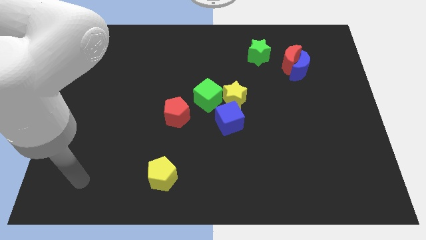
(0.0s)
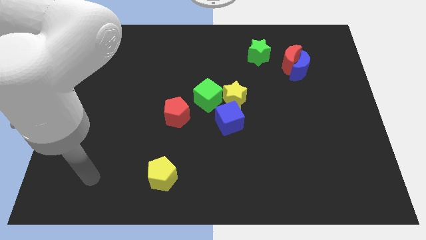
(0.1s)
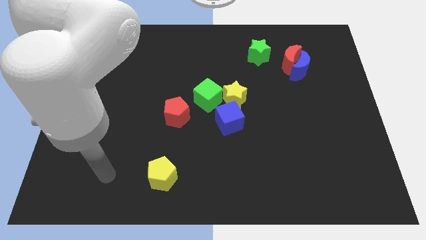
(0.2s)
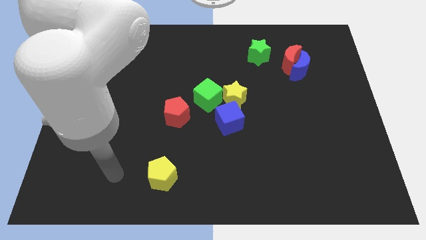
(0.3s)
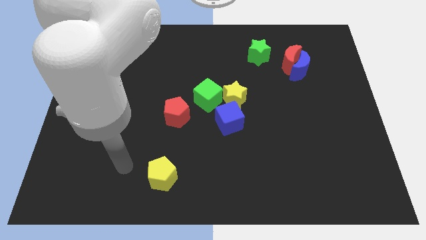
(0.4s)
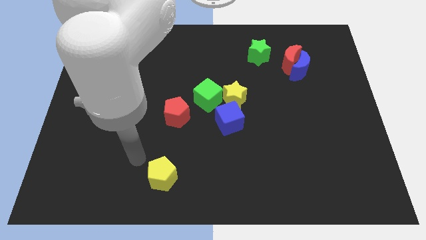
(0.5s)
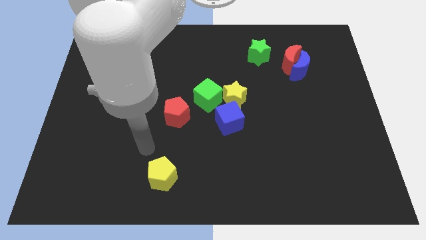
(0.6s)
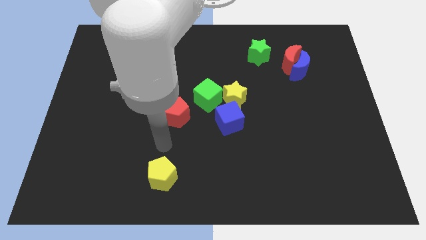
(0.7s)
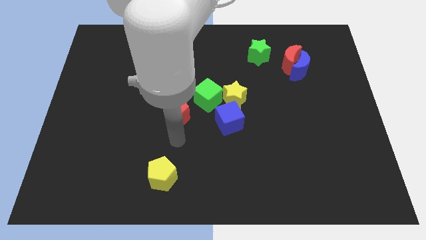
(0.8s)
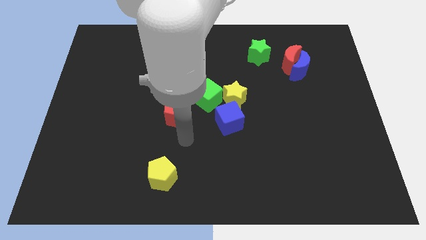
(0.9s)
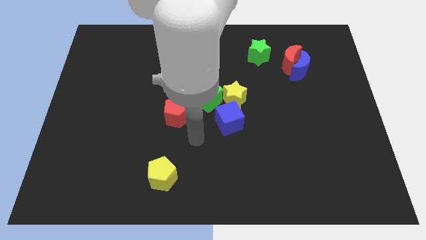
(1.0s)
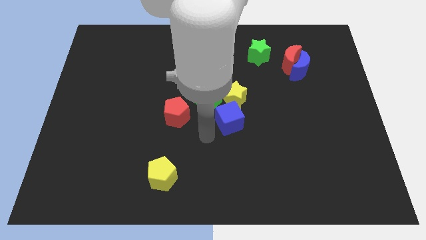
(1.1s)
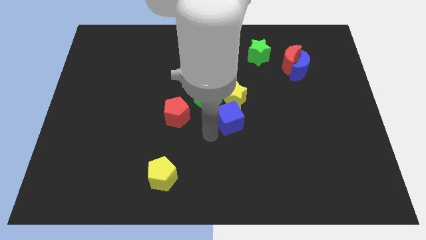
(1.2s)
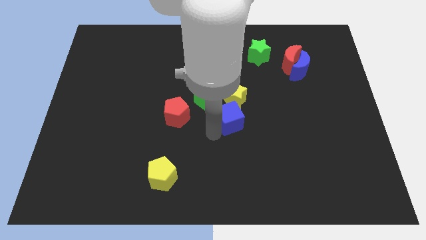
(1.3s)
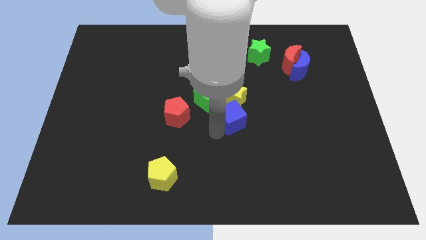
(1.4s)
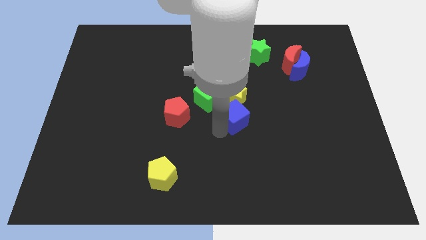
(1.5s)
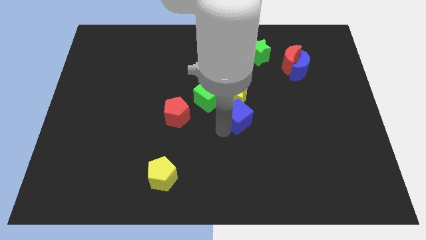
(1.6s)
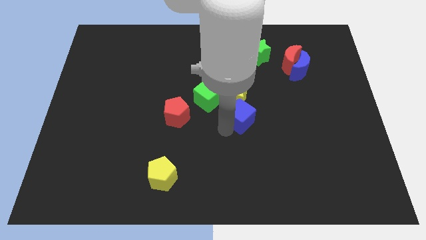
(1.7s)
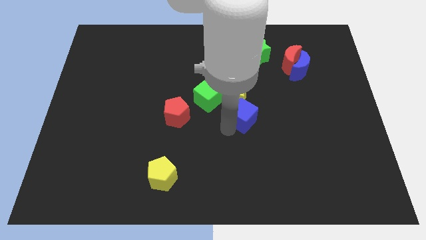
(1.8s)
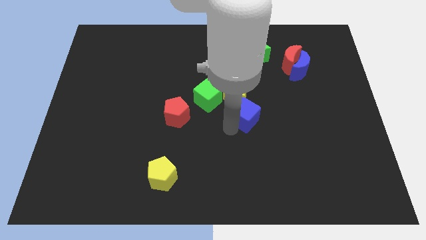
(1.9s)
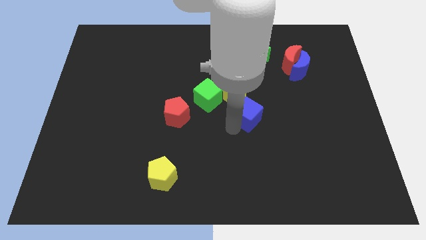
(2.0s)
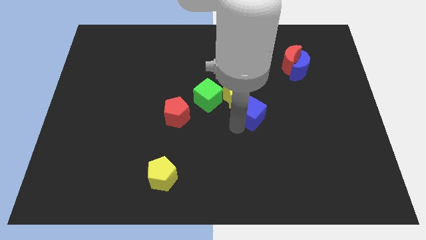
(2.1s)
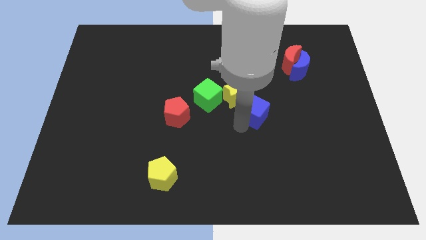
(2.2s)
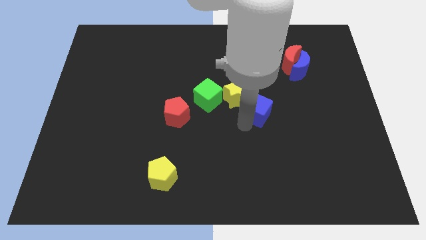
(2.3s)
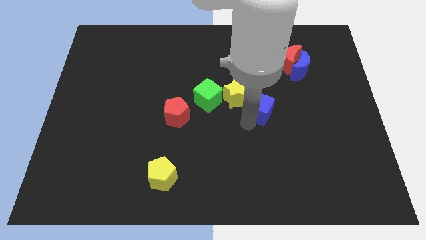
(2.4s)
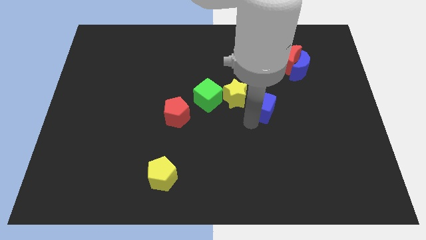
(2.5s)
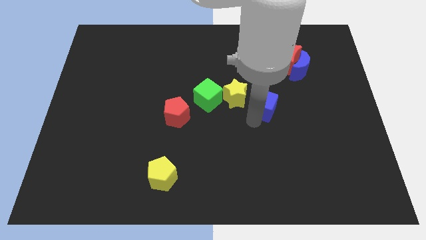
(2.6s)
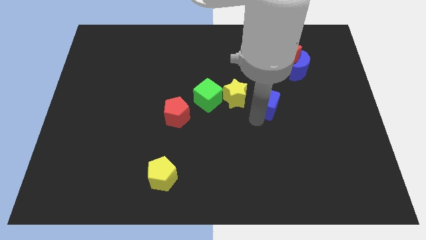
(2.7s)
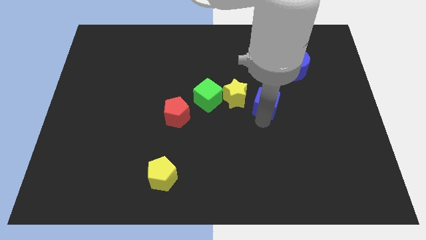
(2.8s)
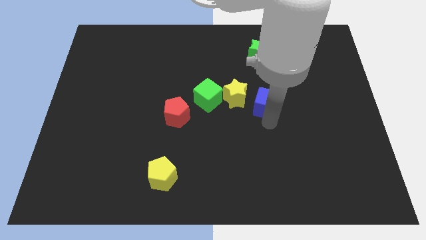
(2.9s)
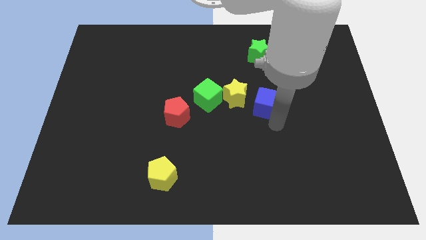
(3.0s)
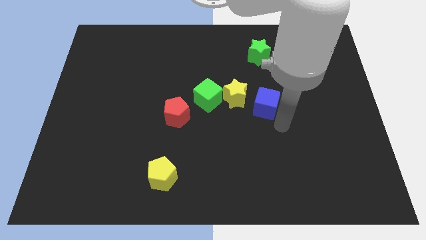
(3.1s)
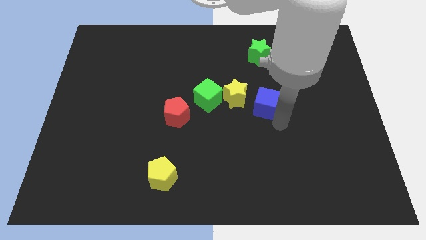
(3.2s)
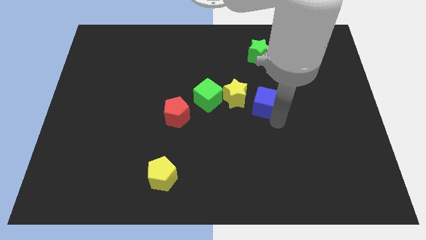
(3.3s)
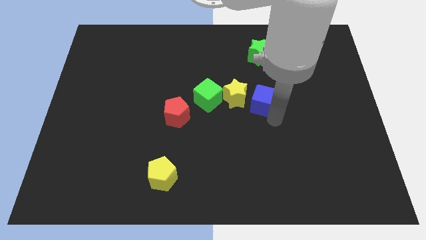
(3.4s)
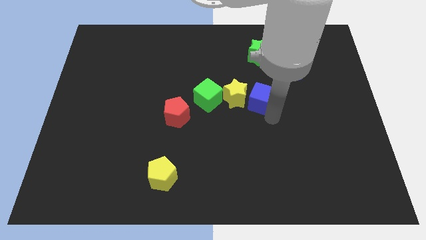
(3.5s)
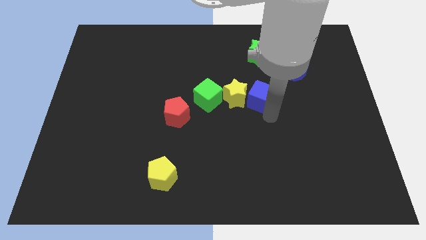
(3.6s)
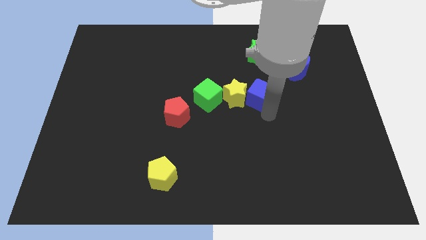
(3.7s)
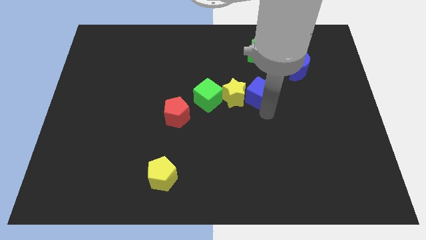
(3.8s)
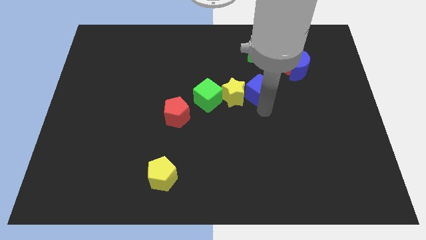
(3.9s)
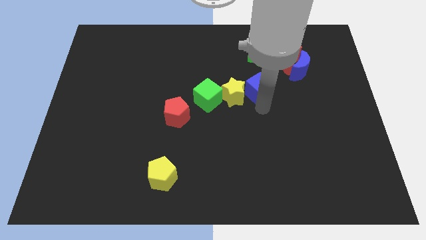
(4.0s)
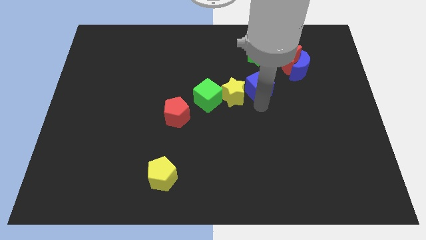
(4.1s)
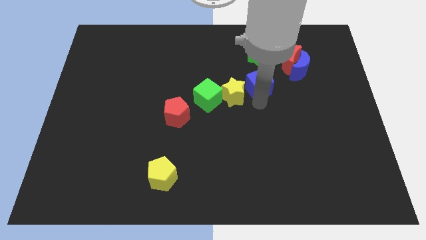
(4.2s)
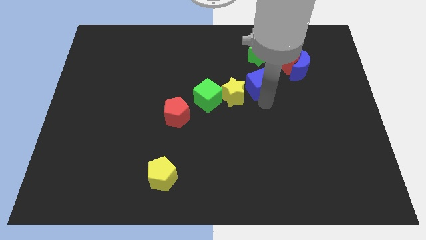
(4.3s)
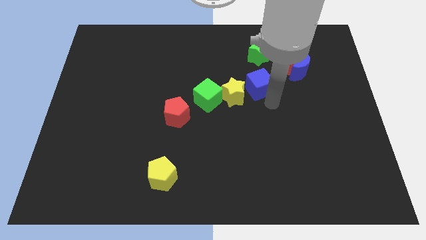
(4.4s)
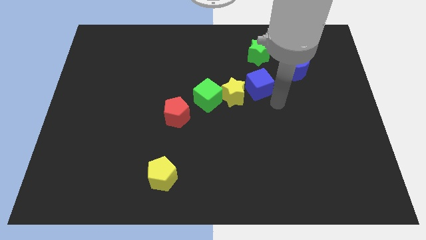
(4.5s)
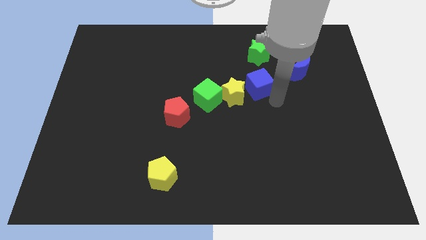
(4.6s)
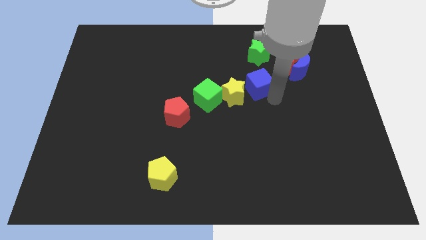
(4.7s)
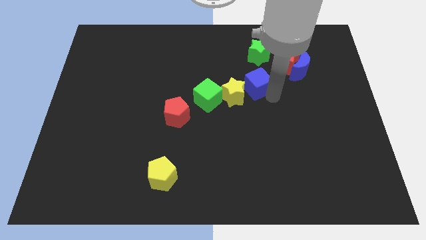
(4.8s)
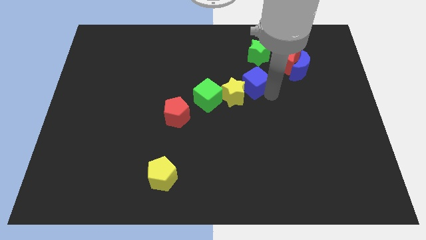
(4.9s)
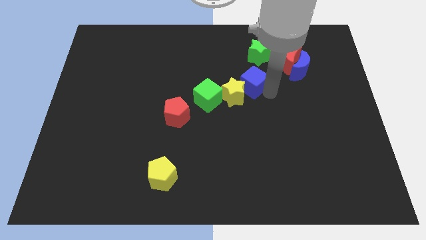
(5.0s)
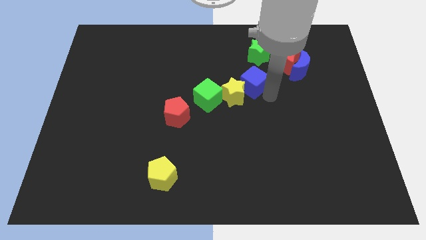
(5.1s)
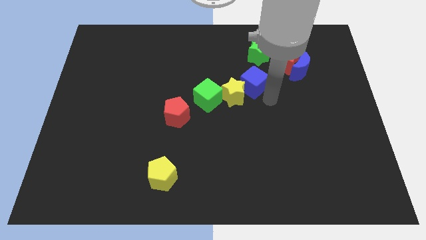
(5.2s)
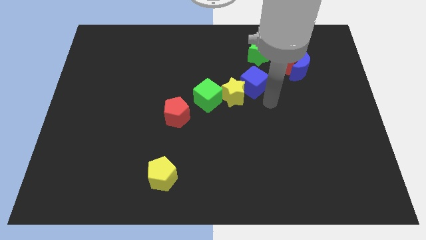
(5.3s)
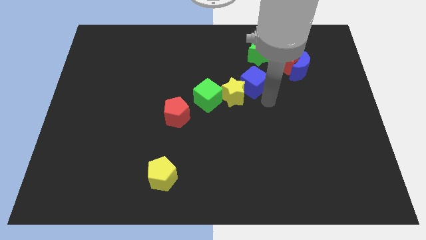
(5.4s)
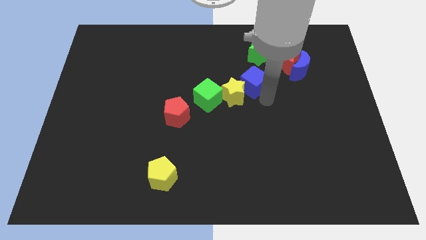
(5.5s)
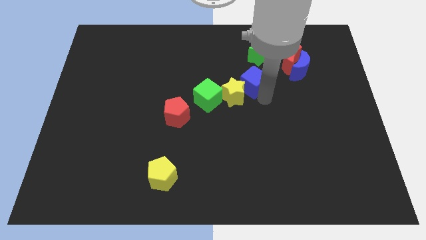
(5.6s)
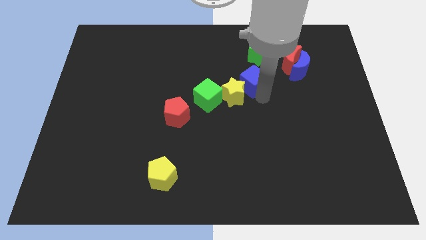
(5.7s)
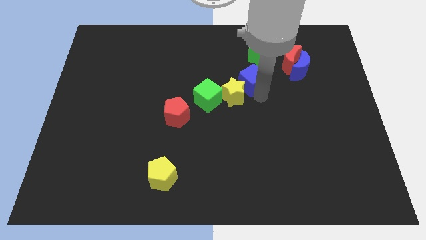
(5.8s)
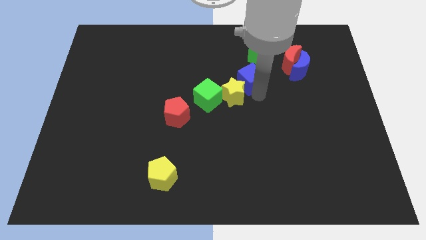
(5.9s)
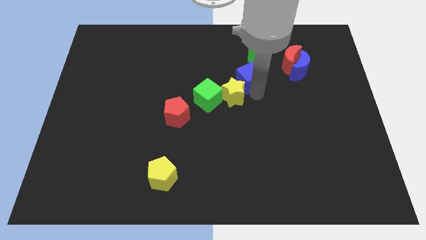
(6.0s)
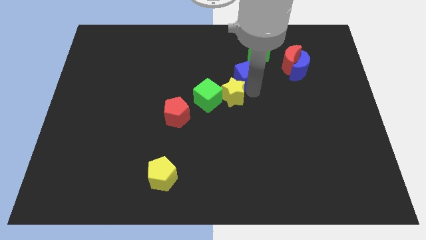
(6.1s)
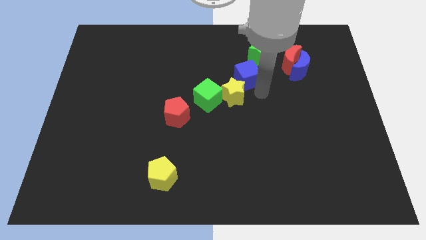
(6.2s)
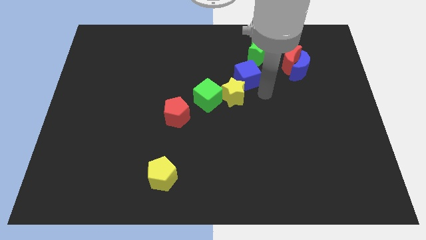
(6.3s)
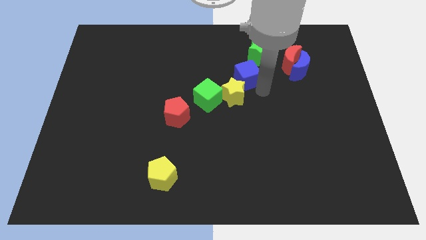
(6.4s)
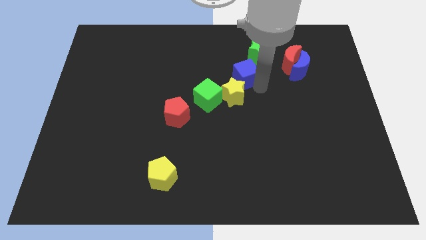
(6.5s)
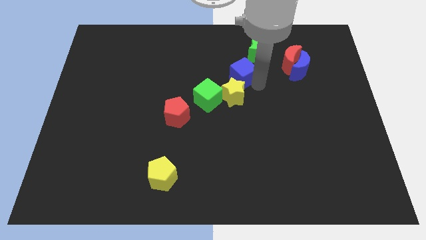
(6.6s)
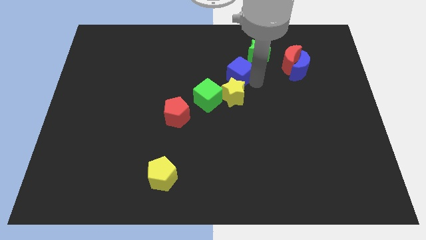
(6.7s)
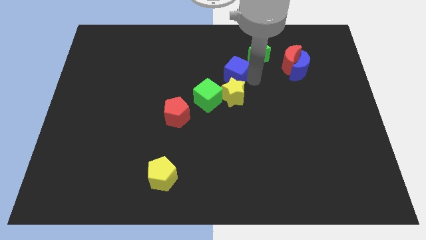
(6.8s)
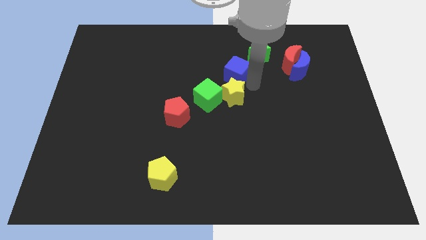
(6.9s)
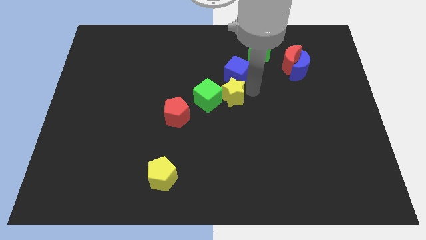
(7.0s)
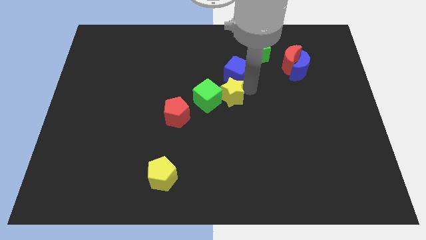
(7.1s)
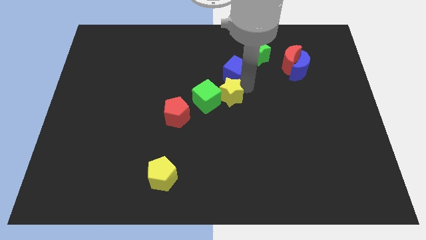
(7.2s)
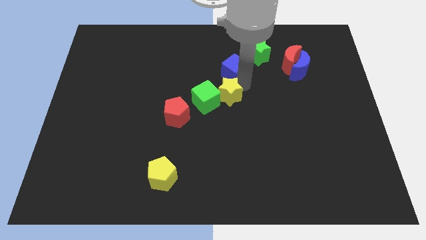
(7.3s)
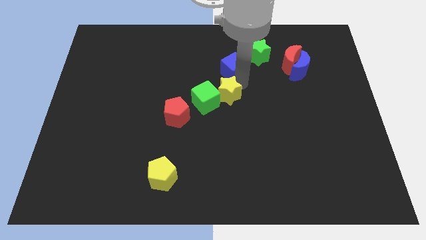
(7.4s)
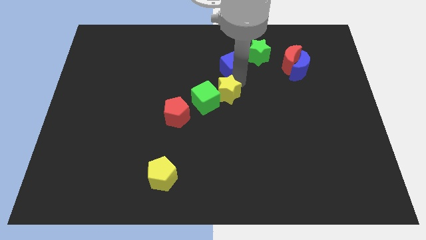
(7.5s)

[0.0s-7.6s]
put the blue cube to the left of the green star
